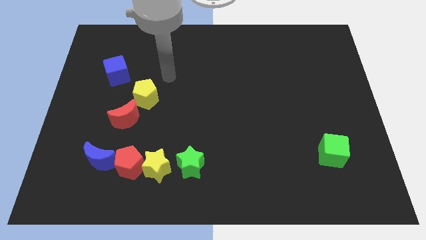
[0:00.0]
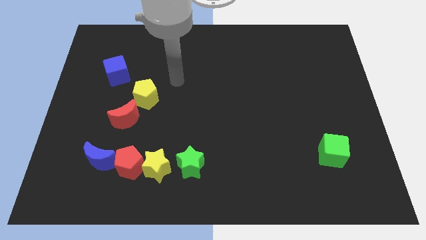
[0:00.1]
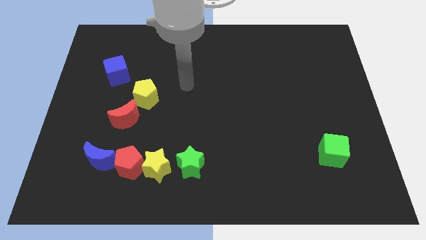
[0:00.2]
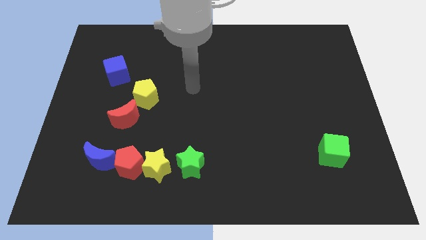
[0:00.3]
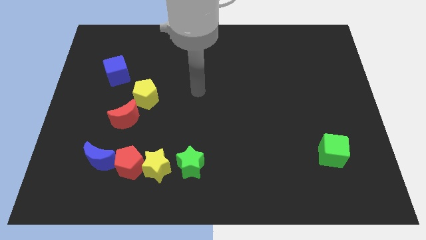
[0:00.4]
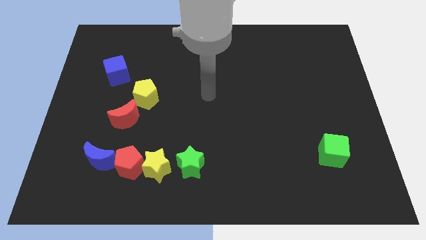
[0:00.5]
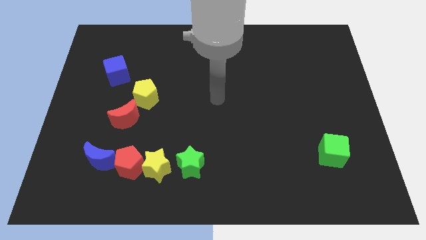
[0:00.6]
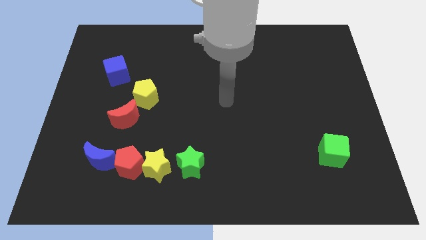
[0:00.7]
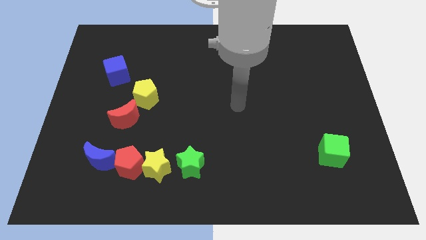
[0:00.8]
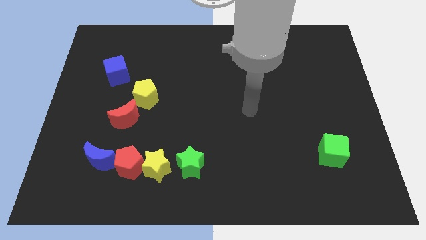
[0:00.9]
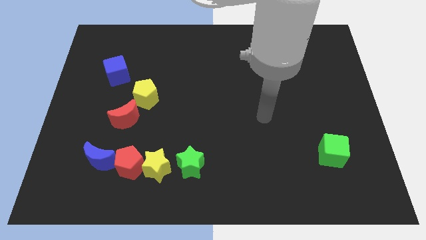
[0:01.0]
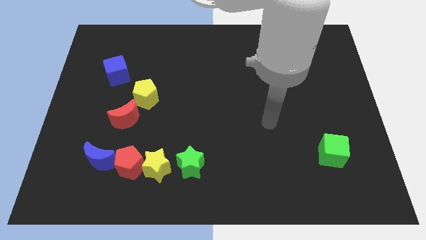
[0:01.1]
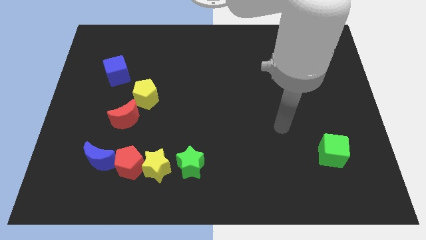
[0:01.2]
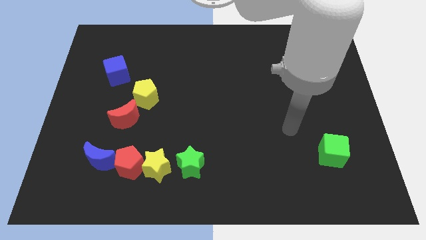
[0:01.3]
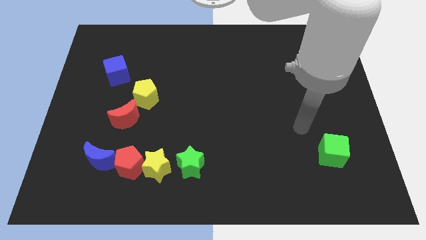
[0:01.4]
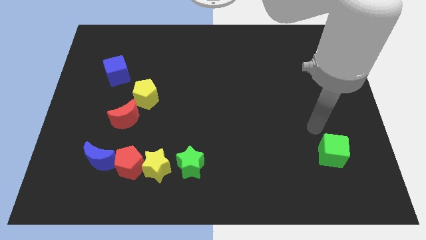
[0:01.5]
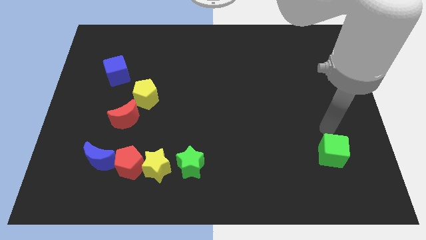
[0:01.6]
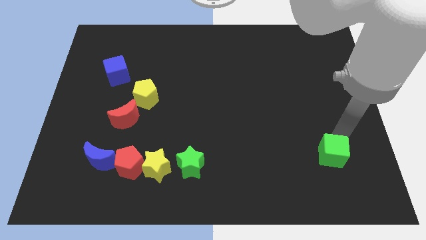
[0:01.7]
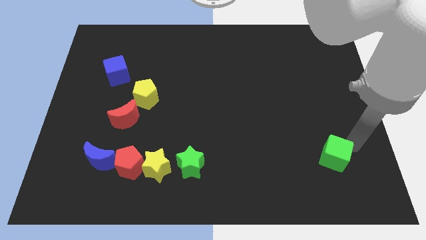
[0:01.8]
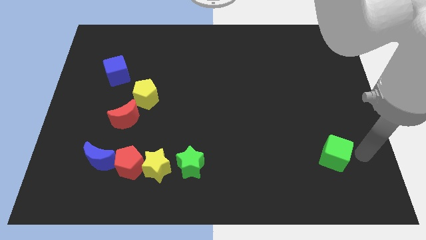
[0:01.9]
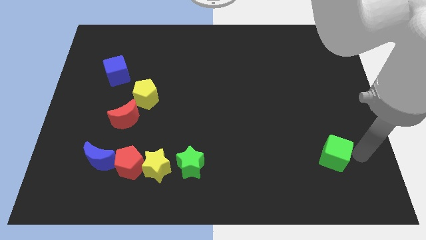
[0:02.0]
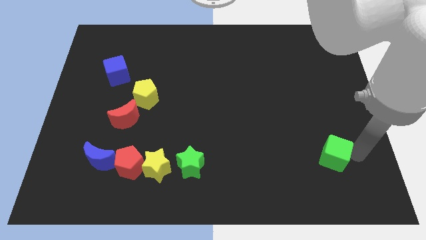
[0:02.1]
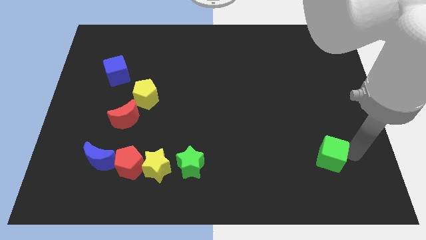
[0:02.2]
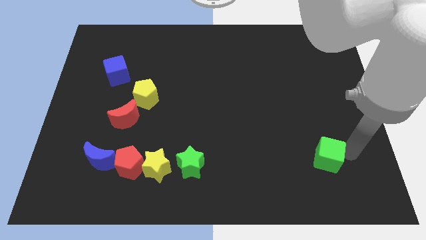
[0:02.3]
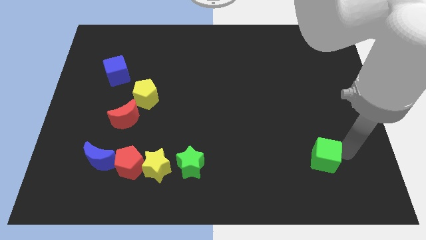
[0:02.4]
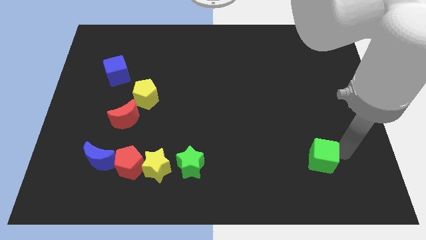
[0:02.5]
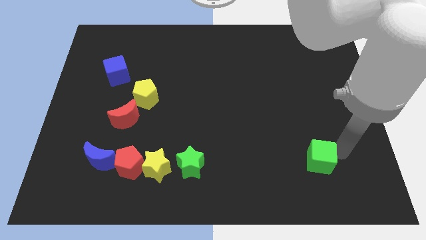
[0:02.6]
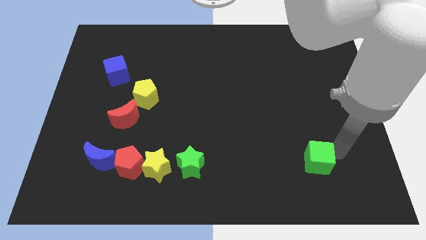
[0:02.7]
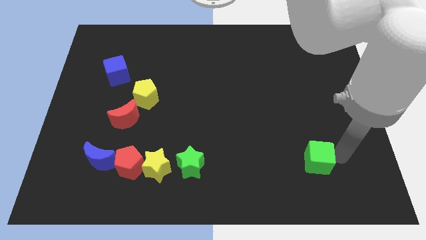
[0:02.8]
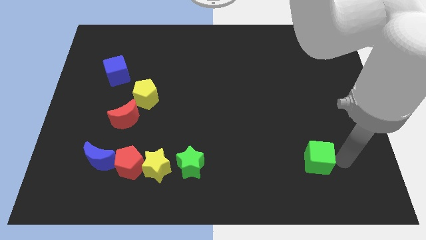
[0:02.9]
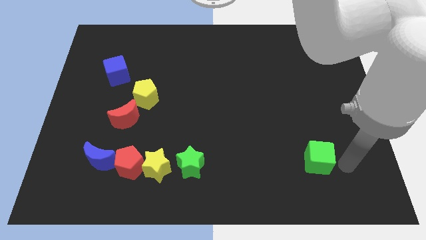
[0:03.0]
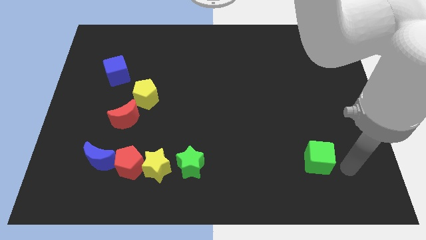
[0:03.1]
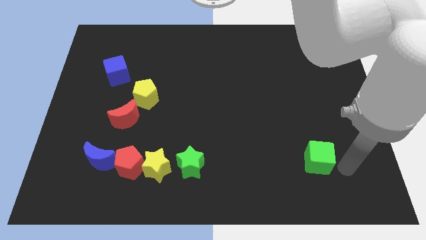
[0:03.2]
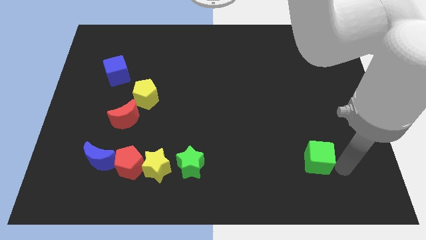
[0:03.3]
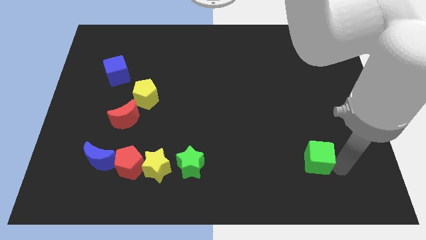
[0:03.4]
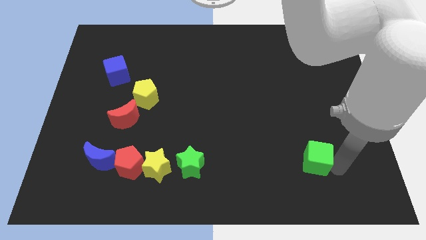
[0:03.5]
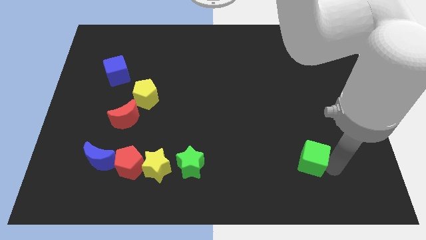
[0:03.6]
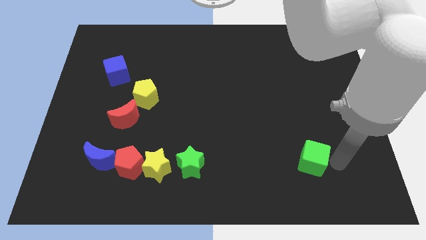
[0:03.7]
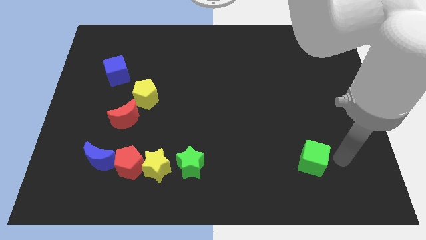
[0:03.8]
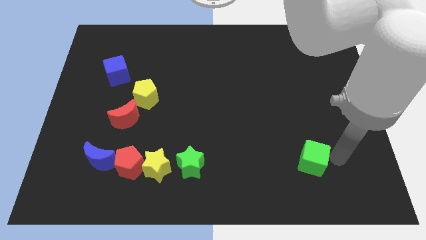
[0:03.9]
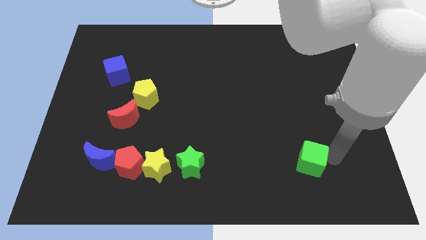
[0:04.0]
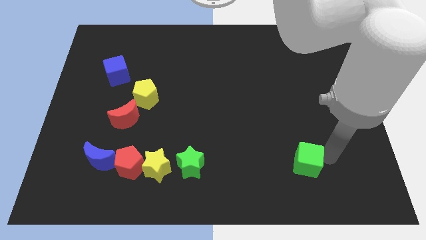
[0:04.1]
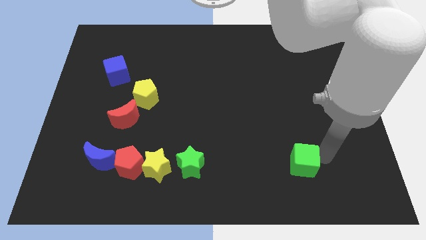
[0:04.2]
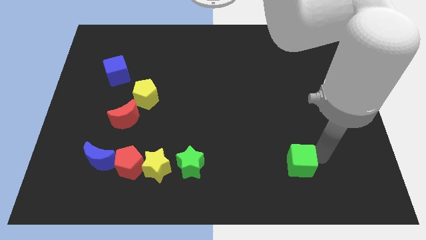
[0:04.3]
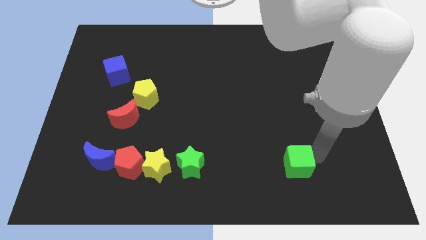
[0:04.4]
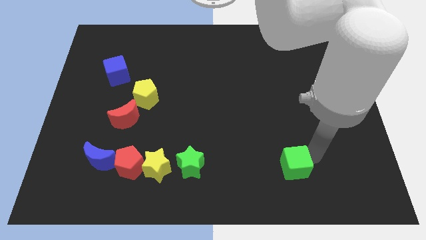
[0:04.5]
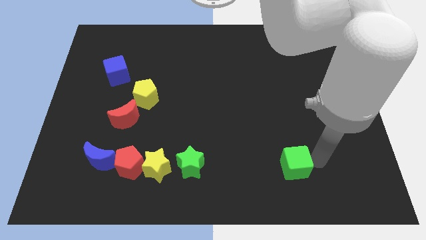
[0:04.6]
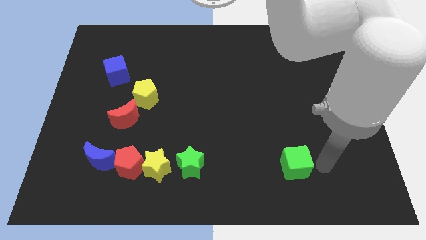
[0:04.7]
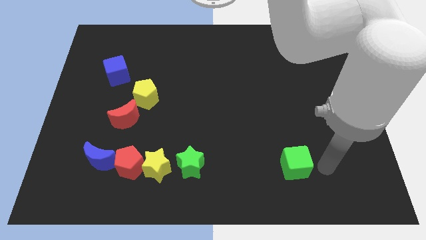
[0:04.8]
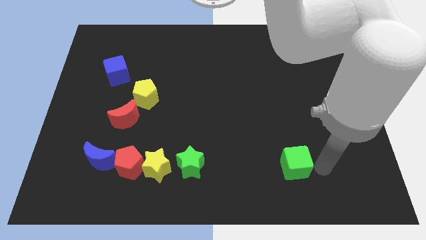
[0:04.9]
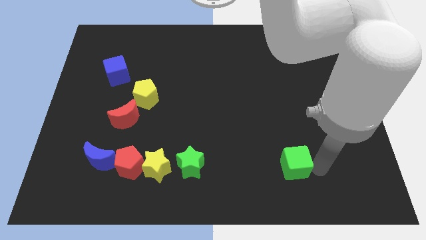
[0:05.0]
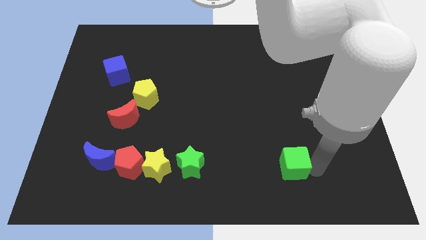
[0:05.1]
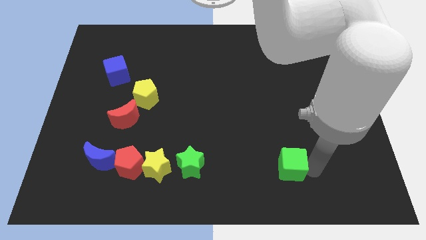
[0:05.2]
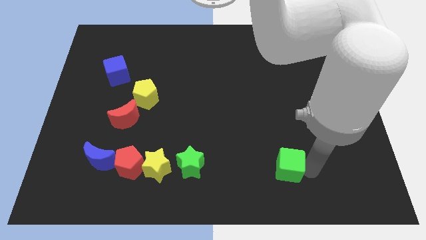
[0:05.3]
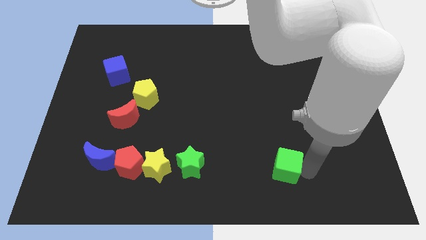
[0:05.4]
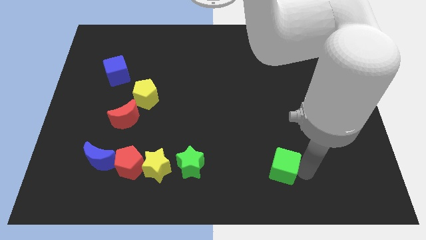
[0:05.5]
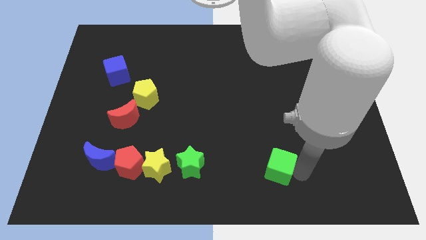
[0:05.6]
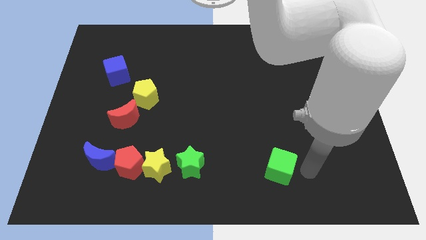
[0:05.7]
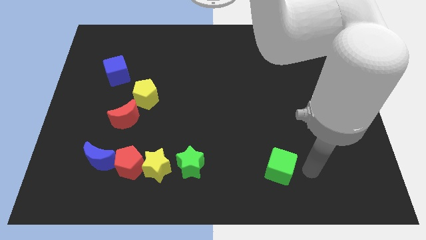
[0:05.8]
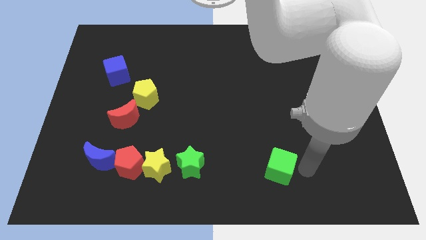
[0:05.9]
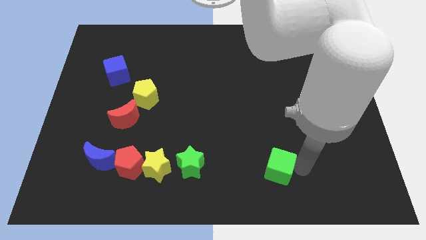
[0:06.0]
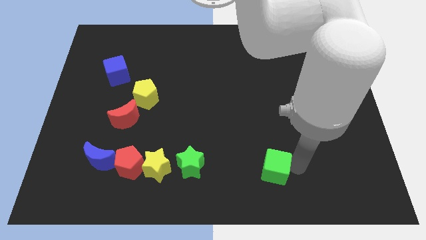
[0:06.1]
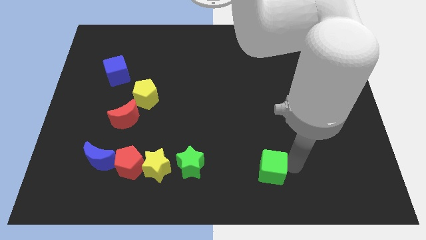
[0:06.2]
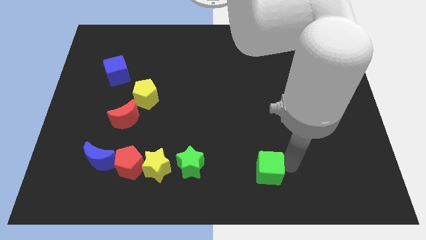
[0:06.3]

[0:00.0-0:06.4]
put the green cube right of the green star

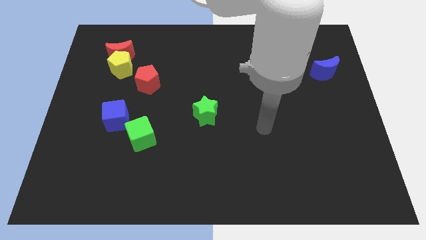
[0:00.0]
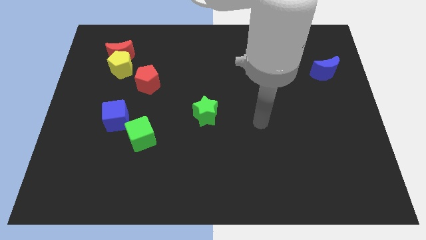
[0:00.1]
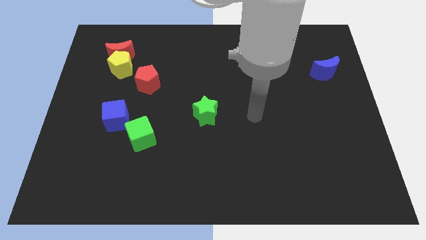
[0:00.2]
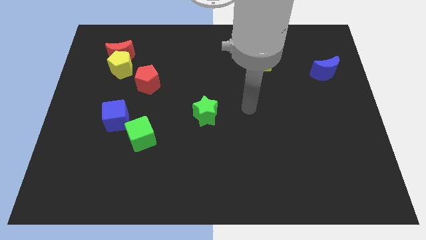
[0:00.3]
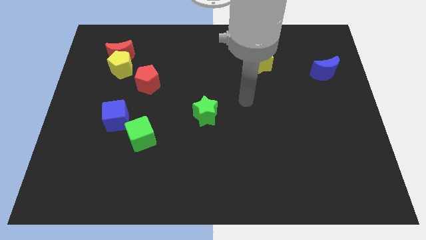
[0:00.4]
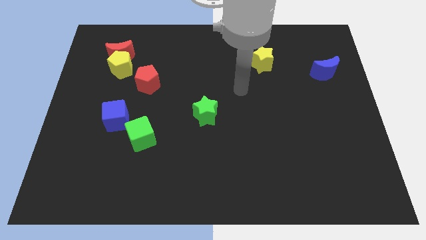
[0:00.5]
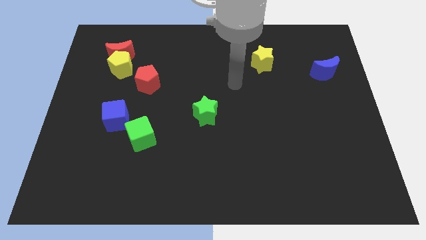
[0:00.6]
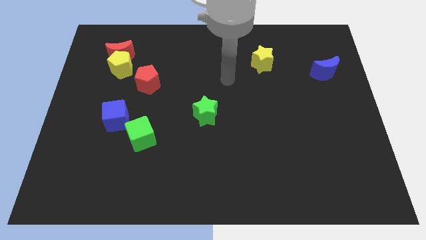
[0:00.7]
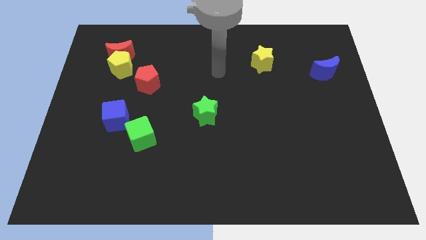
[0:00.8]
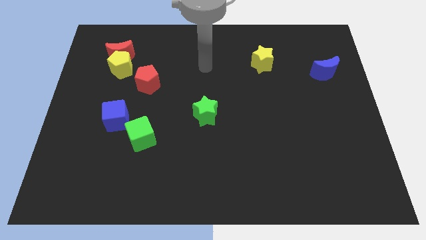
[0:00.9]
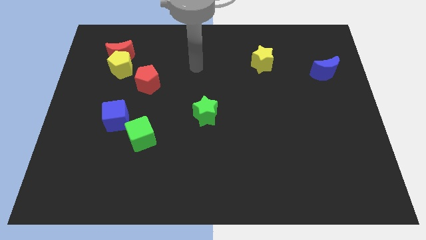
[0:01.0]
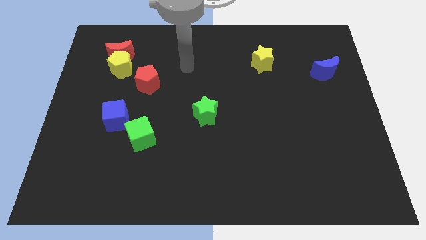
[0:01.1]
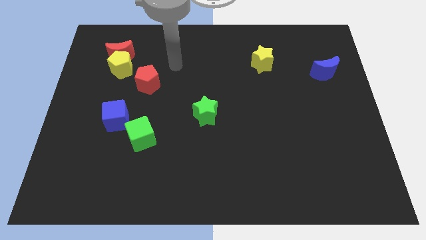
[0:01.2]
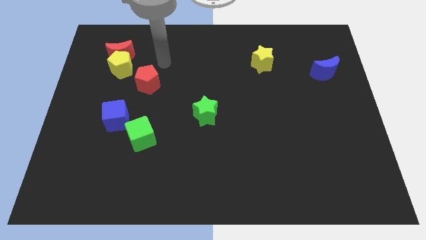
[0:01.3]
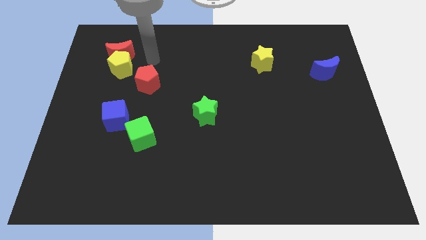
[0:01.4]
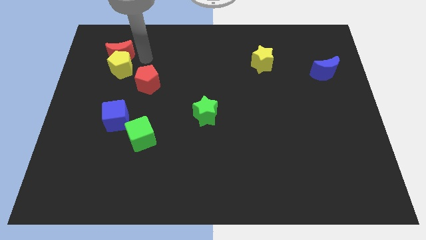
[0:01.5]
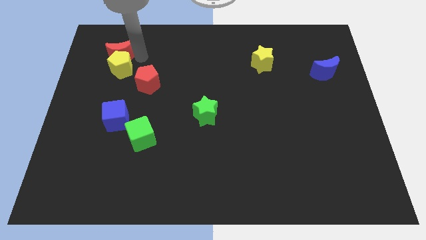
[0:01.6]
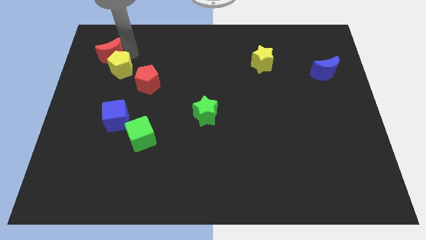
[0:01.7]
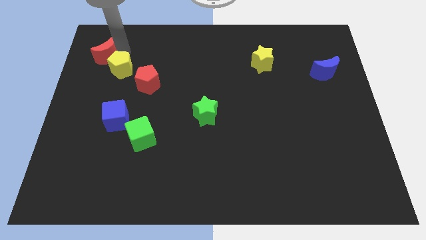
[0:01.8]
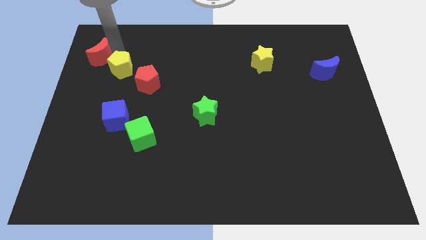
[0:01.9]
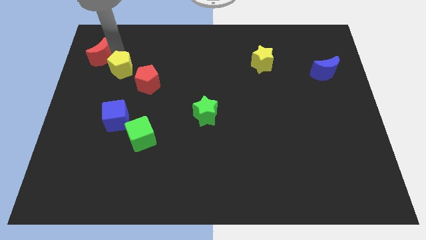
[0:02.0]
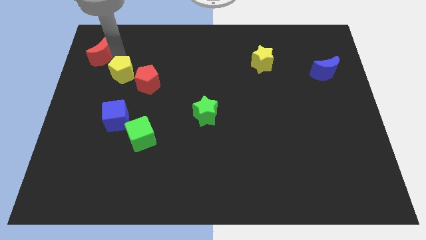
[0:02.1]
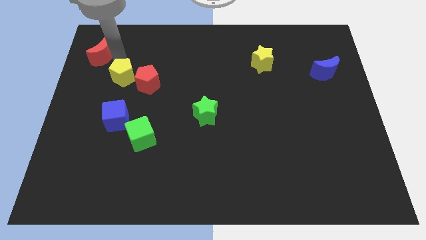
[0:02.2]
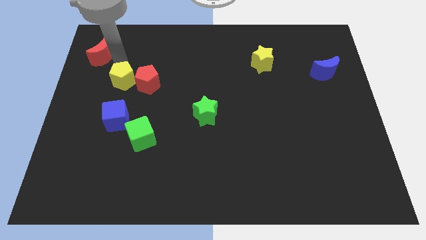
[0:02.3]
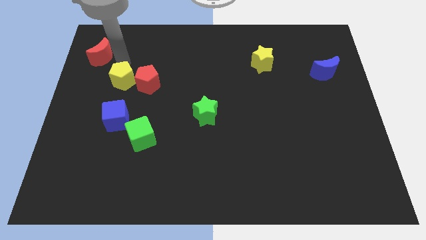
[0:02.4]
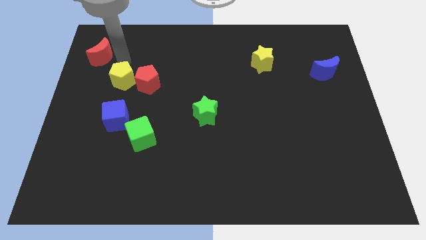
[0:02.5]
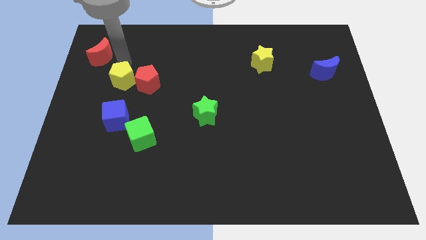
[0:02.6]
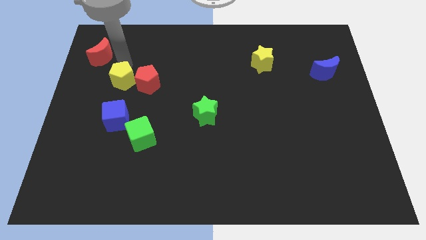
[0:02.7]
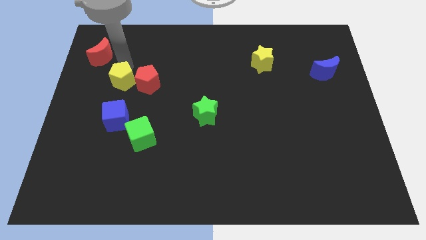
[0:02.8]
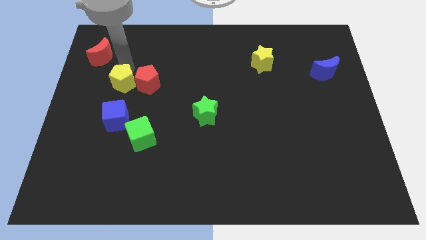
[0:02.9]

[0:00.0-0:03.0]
push the yellow pentagon to the bottom left side of the red pentagon
